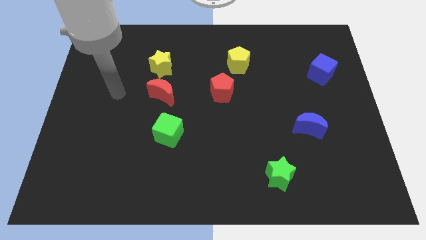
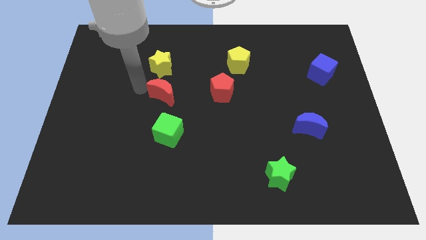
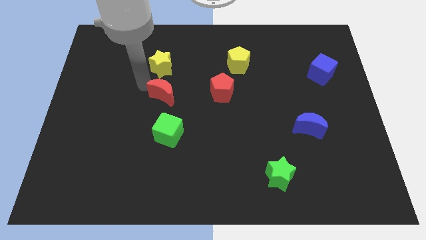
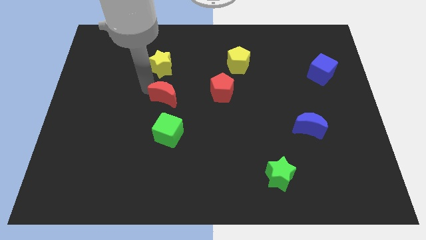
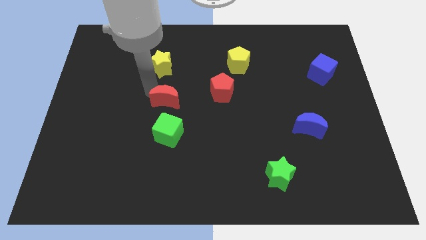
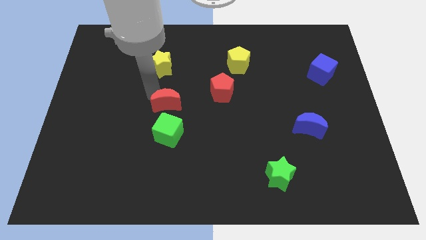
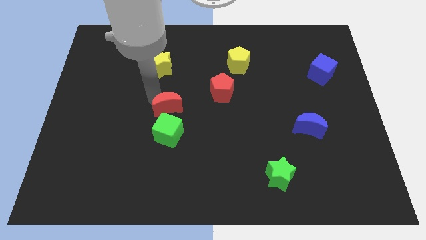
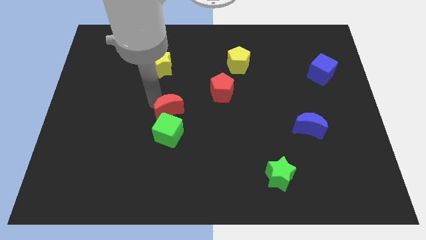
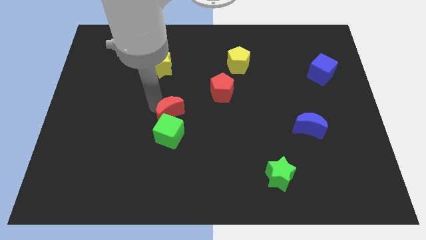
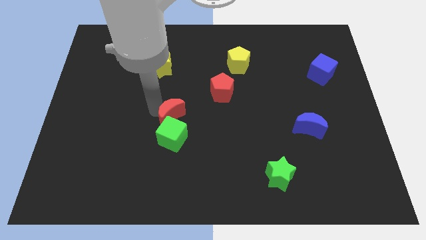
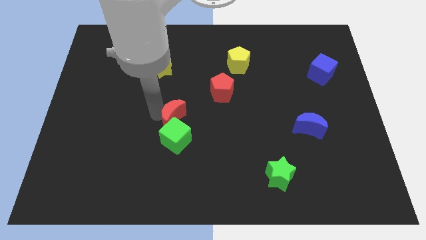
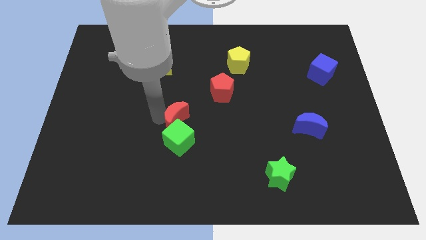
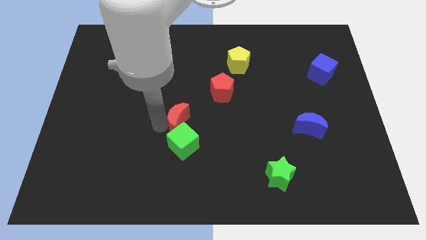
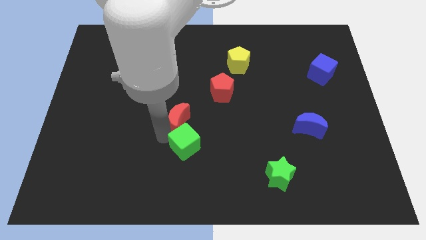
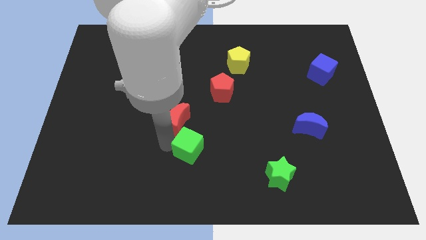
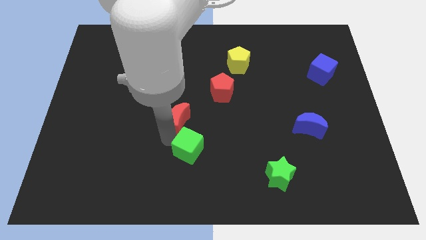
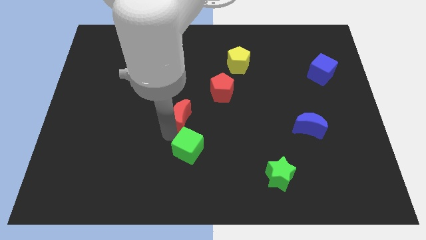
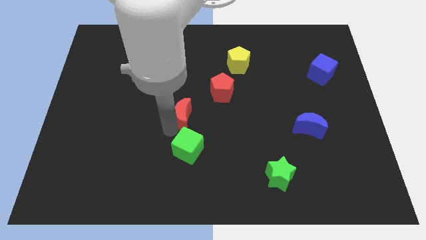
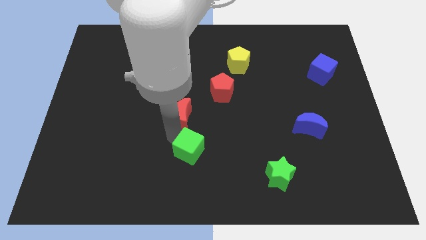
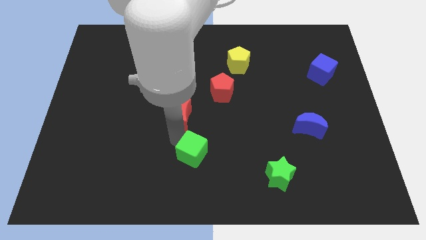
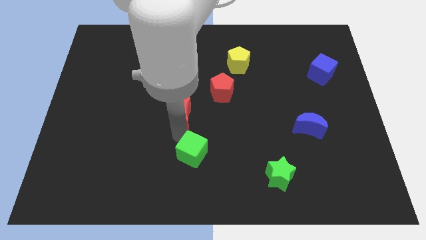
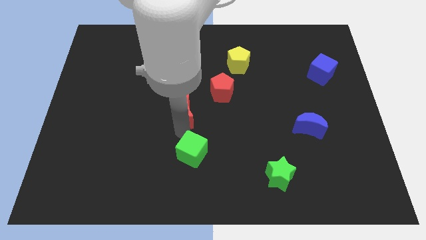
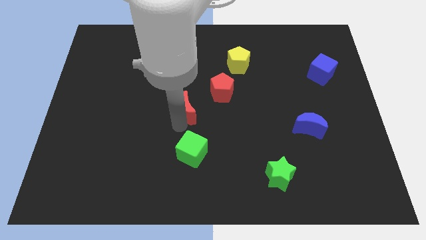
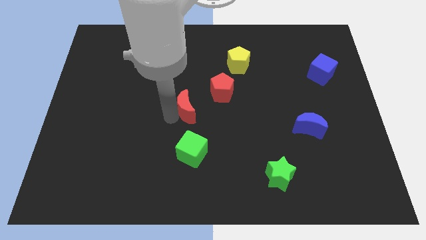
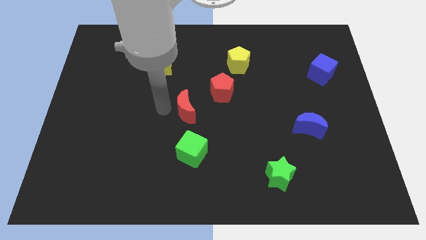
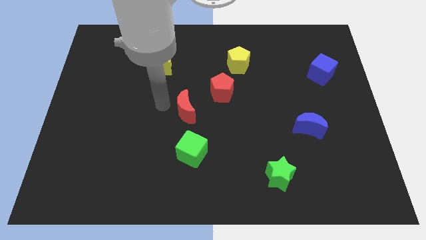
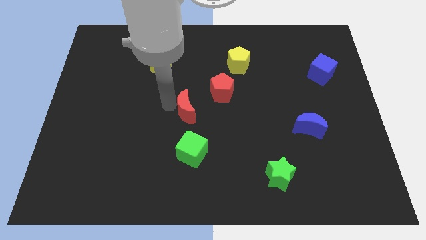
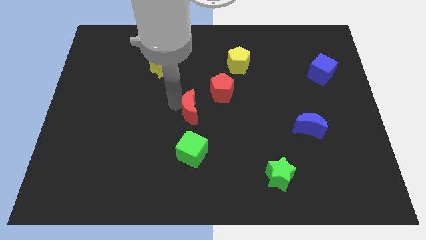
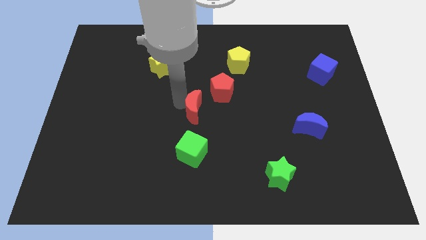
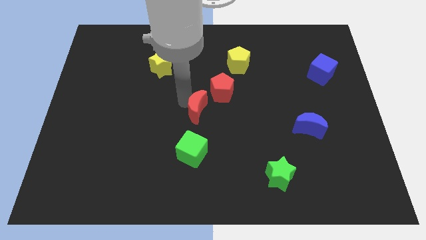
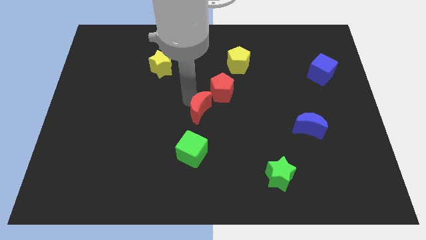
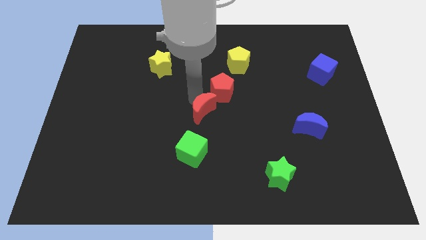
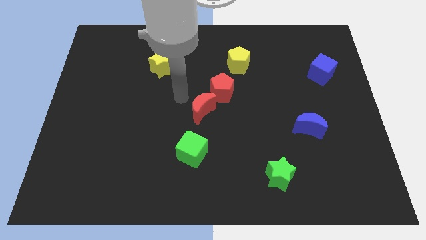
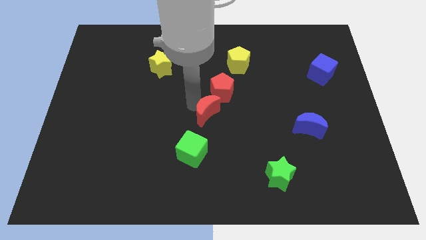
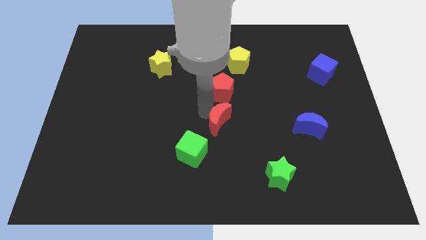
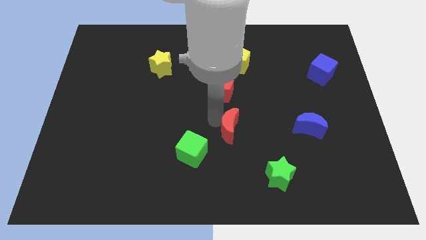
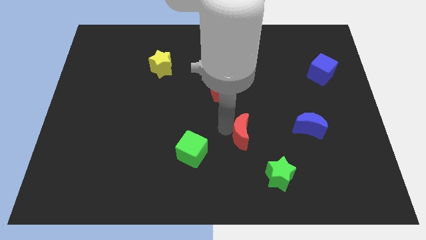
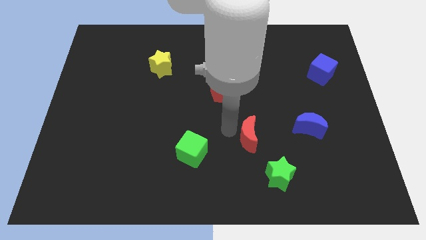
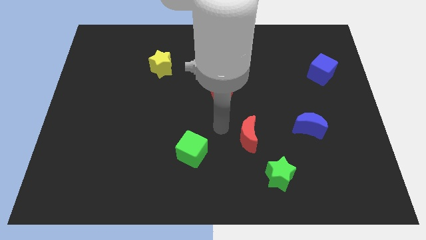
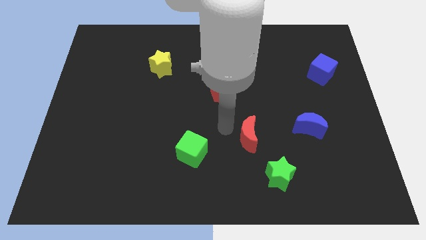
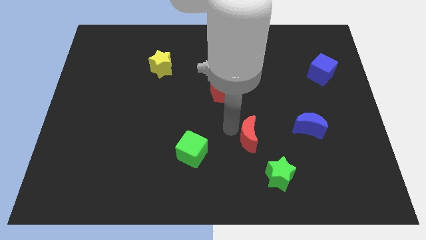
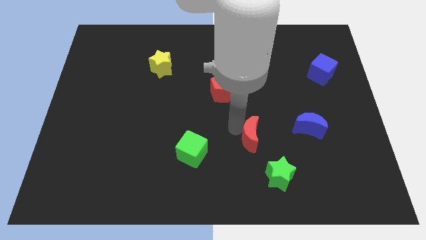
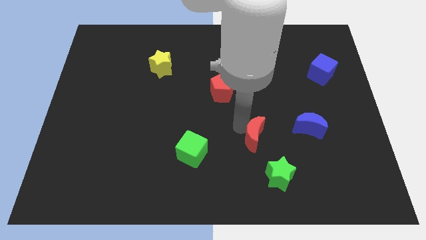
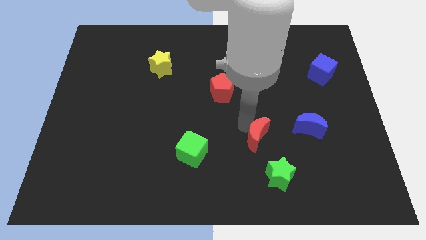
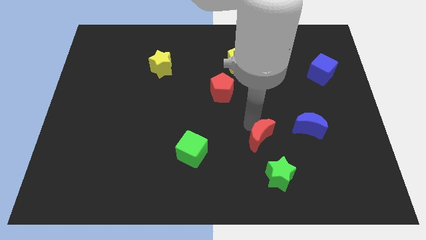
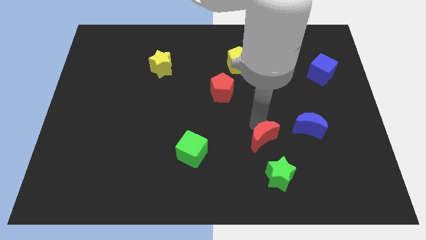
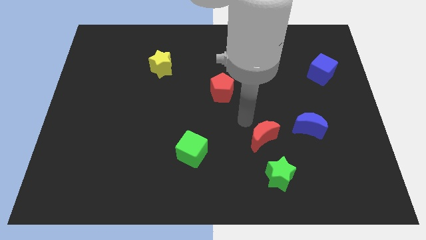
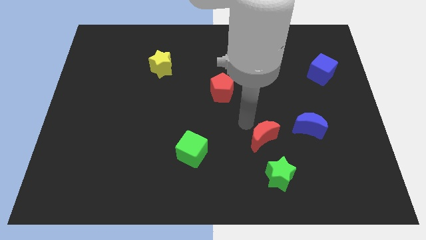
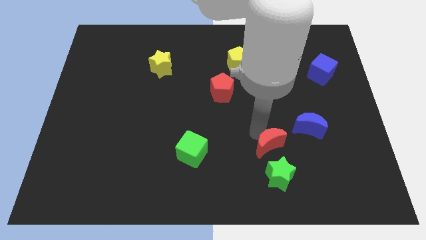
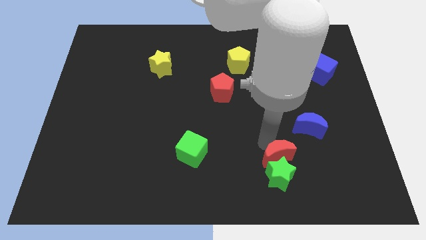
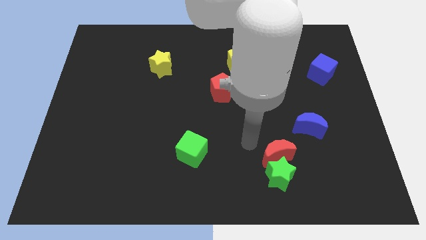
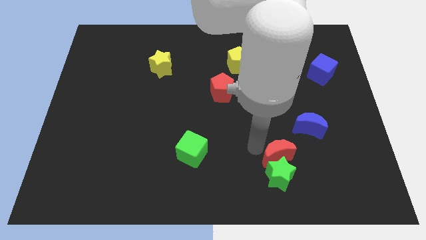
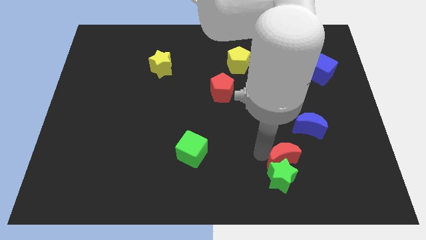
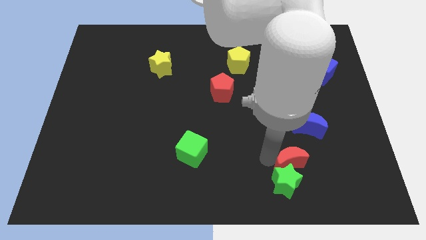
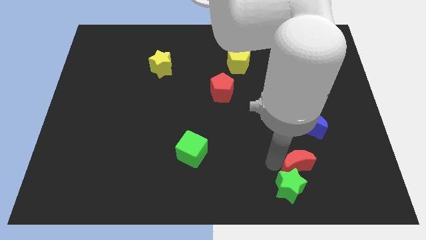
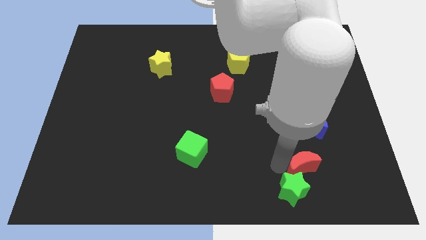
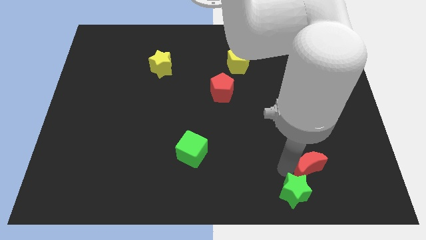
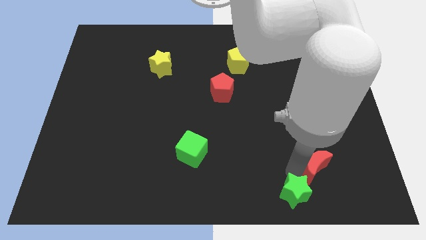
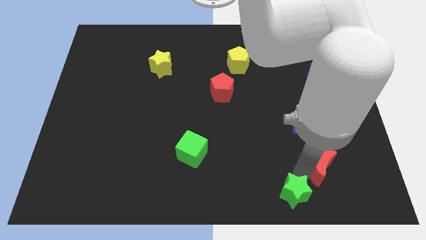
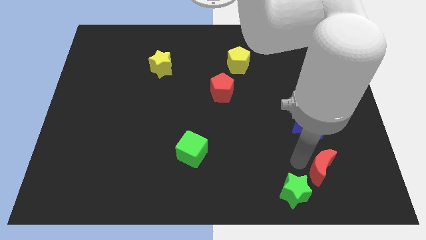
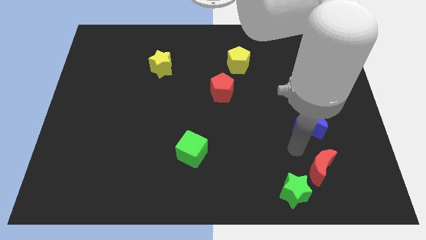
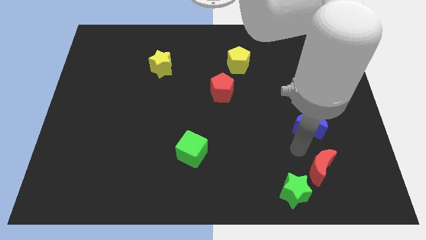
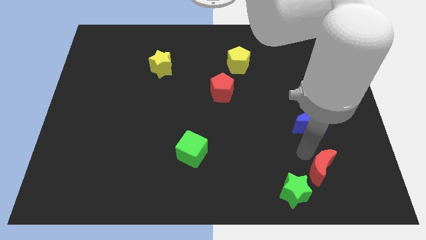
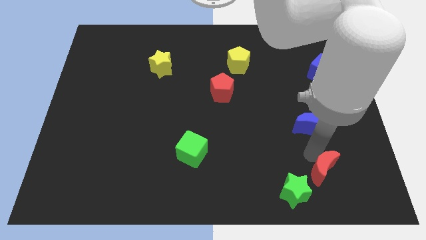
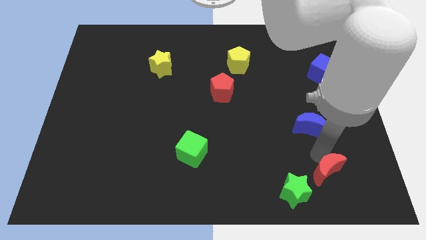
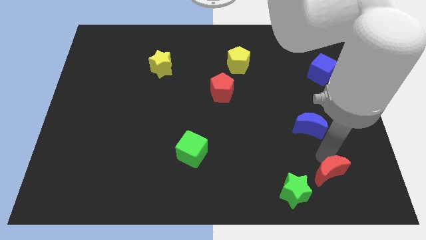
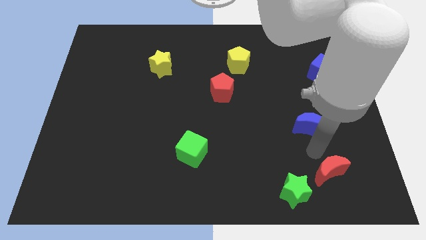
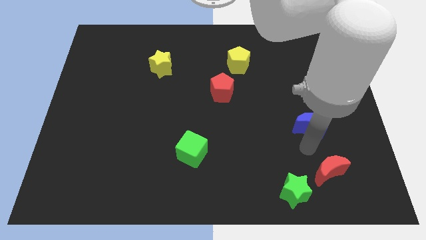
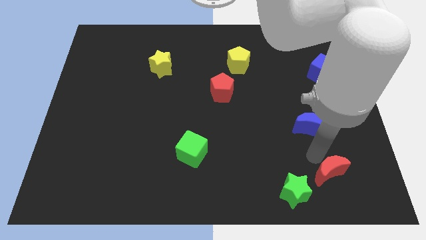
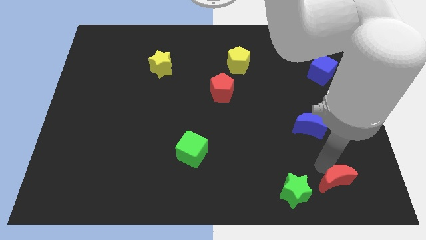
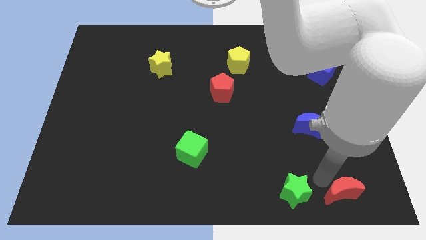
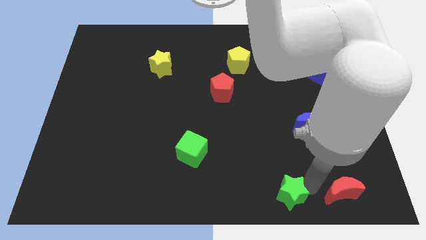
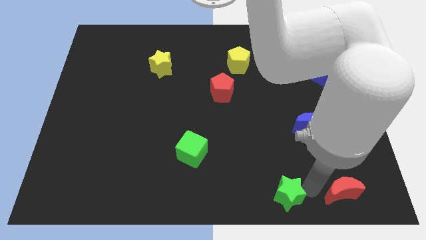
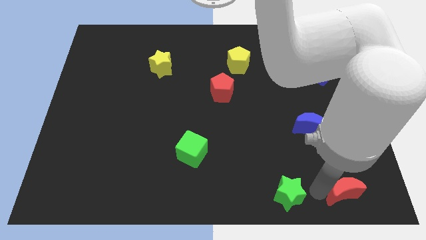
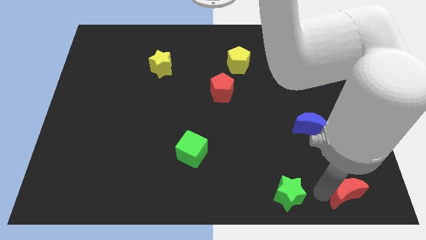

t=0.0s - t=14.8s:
slide the red moon to the lower right corner
